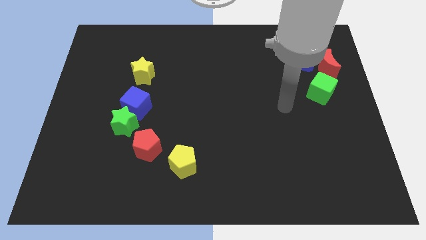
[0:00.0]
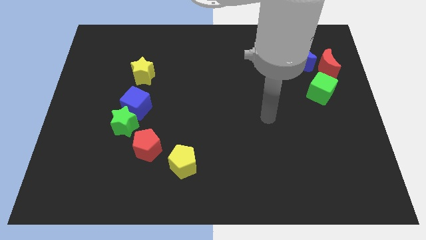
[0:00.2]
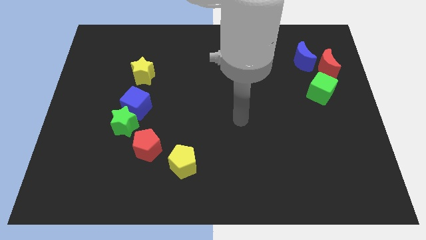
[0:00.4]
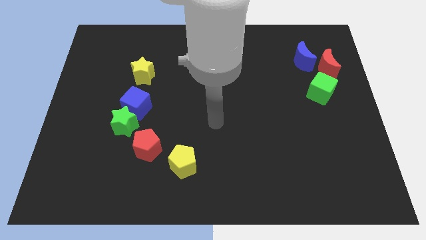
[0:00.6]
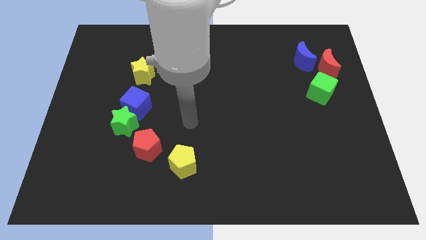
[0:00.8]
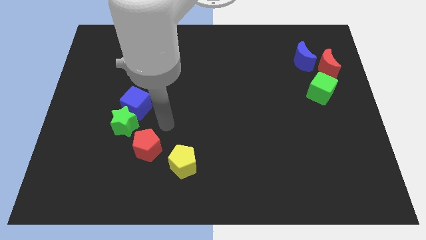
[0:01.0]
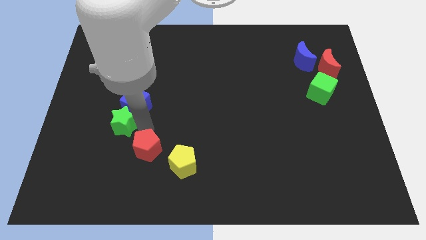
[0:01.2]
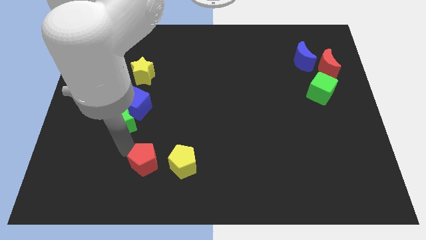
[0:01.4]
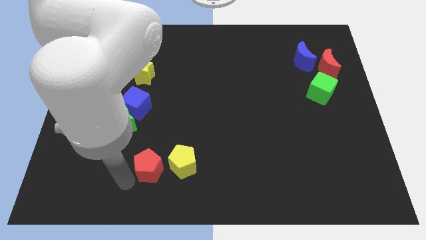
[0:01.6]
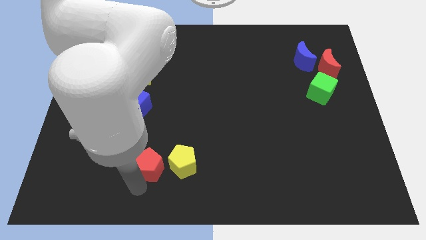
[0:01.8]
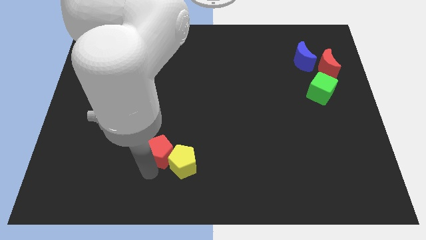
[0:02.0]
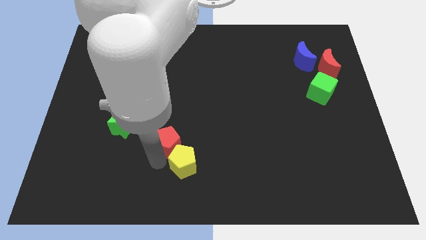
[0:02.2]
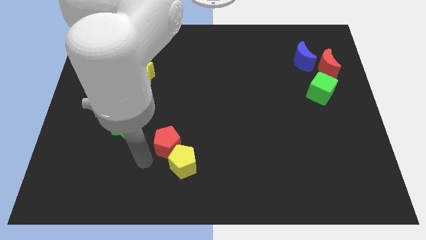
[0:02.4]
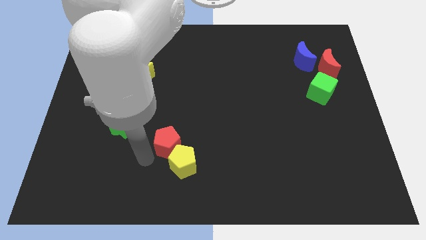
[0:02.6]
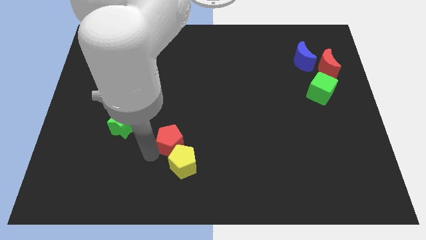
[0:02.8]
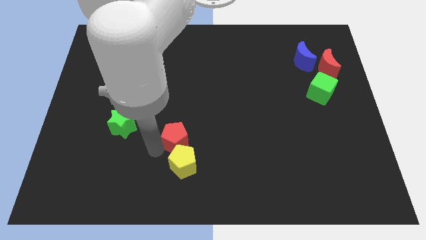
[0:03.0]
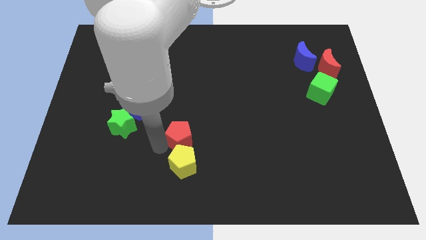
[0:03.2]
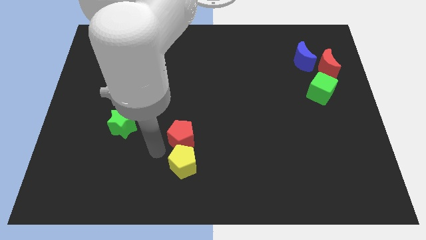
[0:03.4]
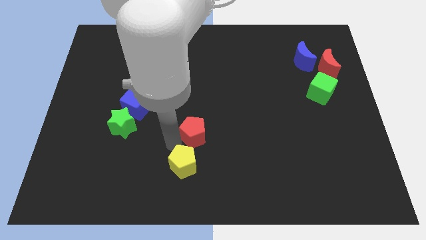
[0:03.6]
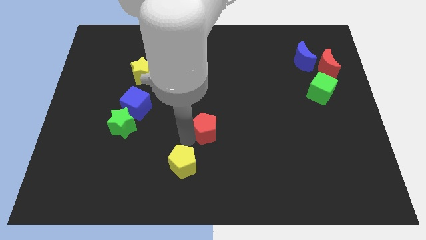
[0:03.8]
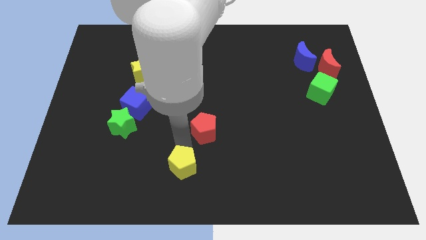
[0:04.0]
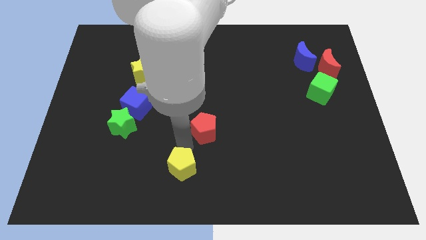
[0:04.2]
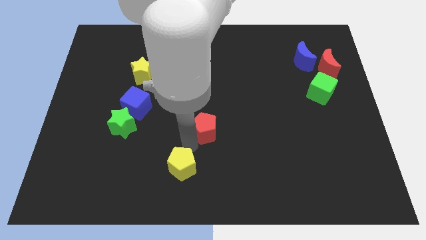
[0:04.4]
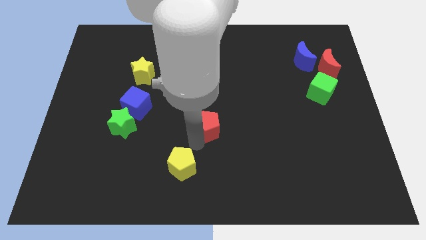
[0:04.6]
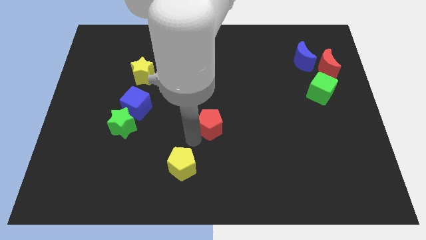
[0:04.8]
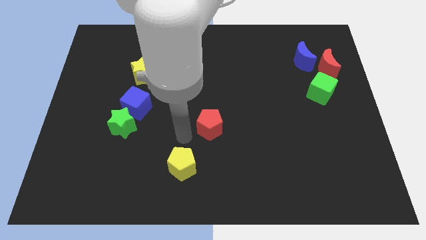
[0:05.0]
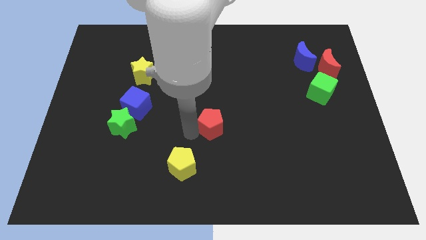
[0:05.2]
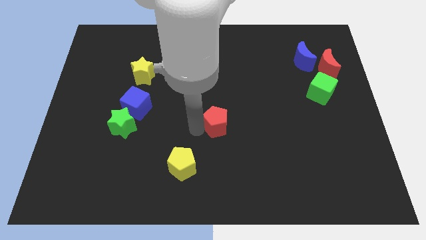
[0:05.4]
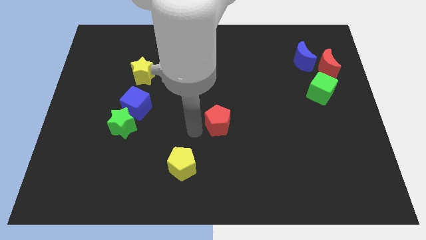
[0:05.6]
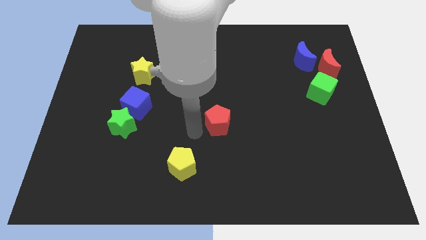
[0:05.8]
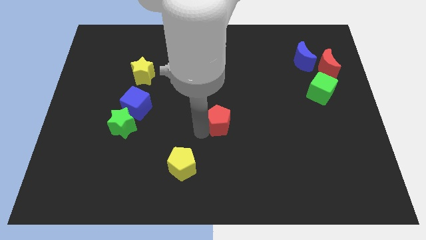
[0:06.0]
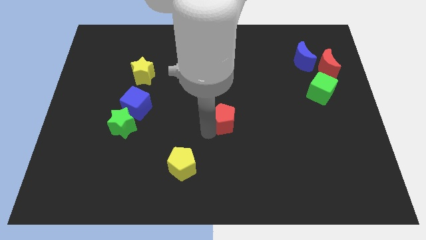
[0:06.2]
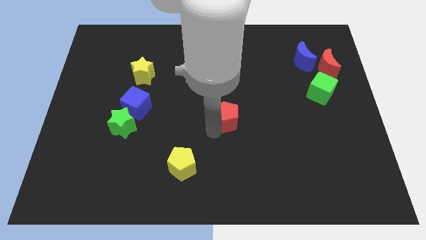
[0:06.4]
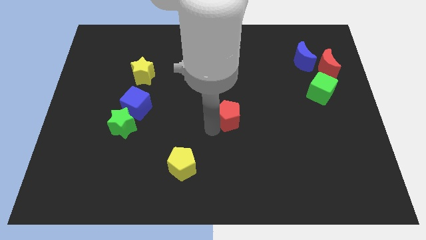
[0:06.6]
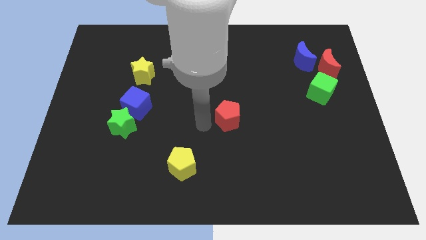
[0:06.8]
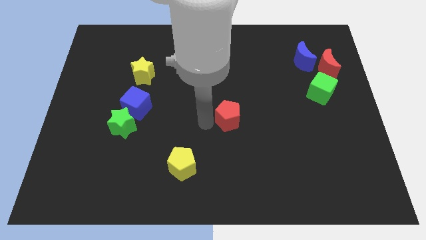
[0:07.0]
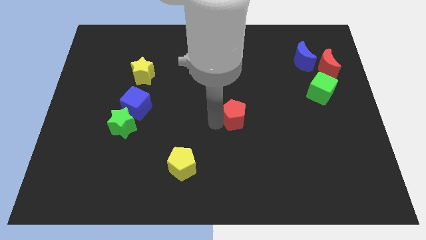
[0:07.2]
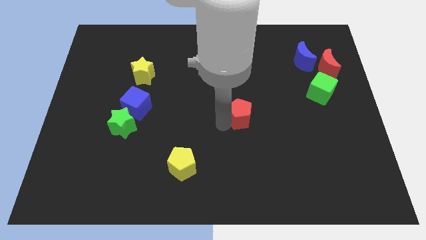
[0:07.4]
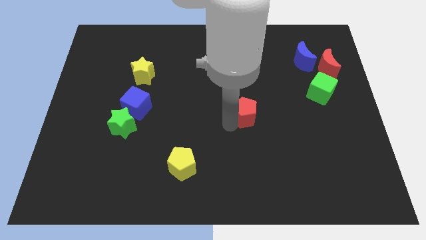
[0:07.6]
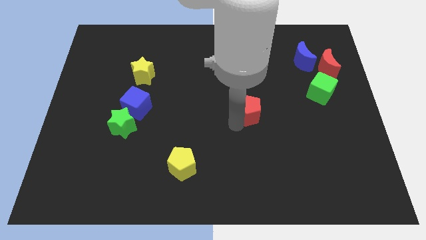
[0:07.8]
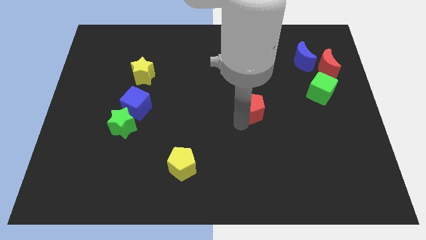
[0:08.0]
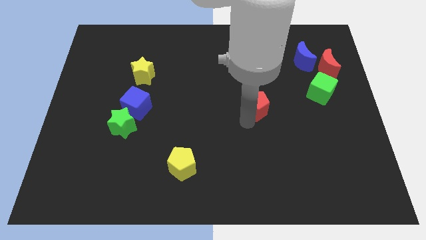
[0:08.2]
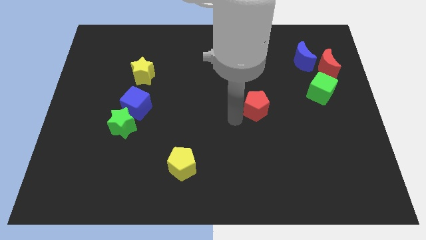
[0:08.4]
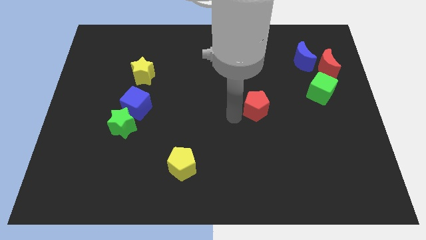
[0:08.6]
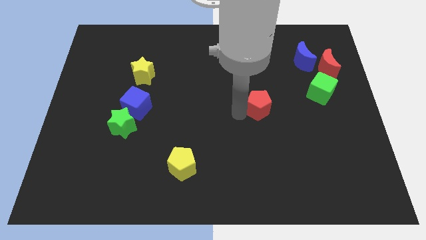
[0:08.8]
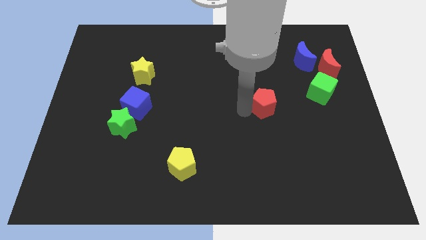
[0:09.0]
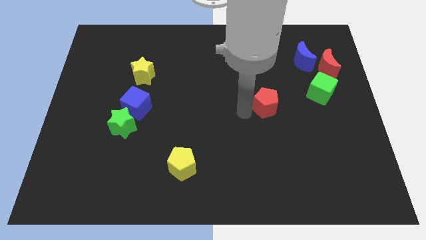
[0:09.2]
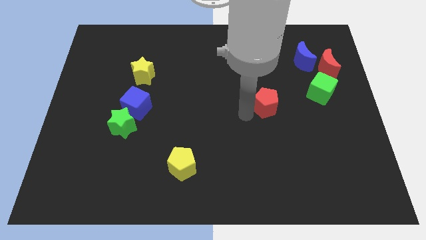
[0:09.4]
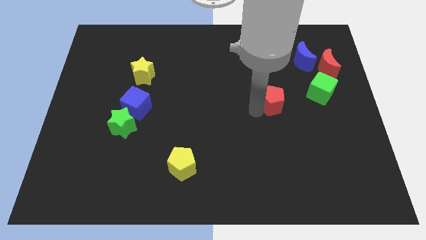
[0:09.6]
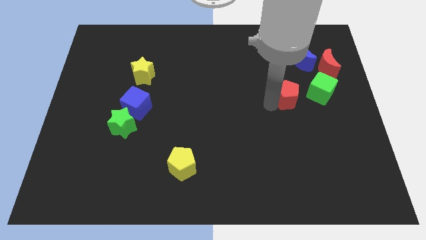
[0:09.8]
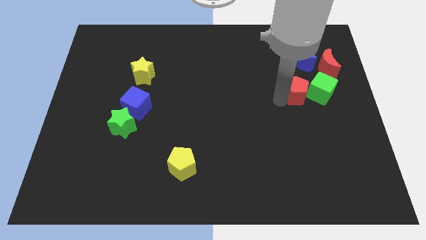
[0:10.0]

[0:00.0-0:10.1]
slide the red pentagon towards the green cube

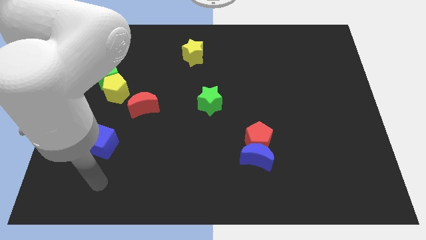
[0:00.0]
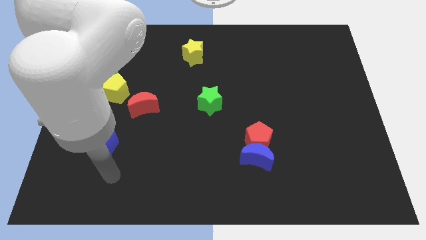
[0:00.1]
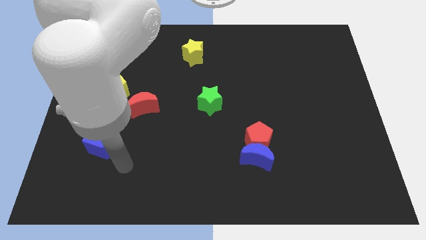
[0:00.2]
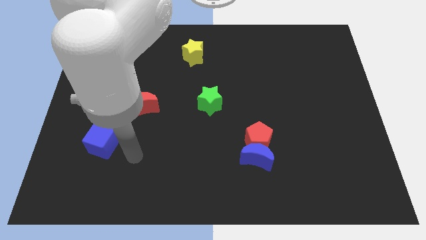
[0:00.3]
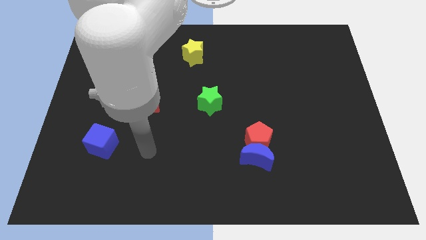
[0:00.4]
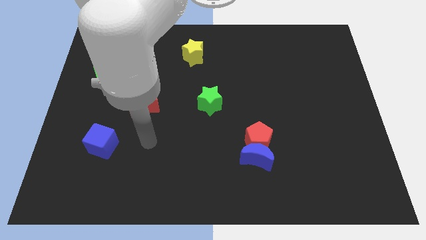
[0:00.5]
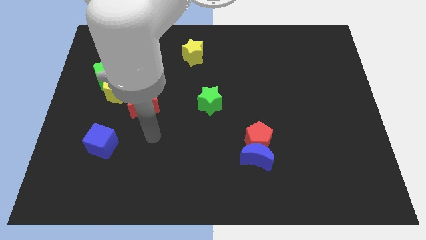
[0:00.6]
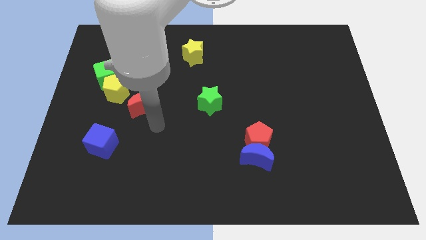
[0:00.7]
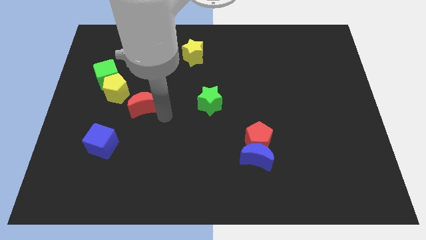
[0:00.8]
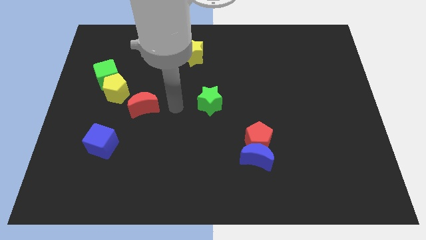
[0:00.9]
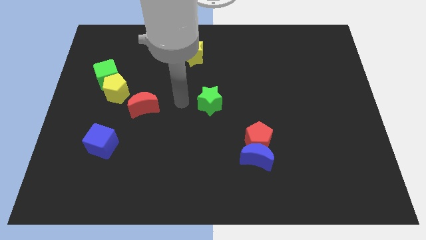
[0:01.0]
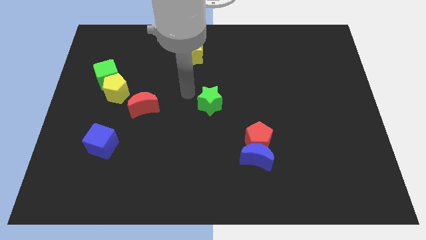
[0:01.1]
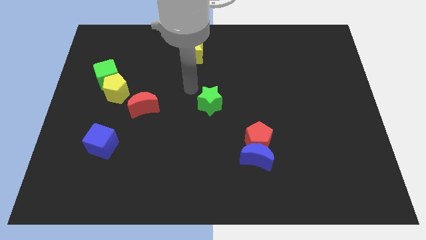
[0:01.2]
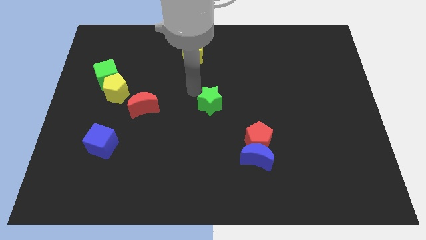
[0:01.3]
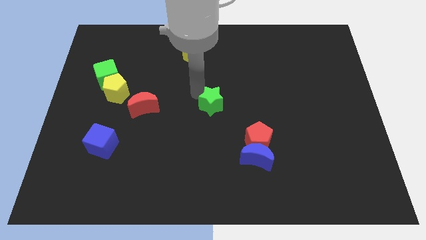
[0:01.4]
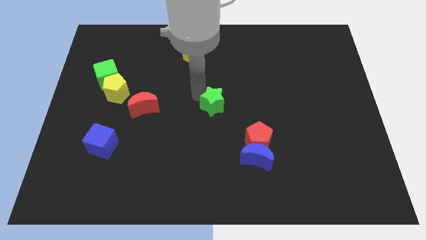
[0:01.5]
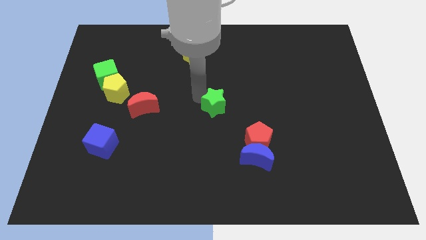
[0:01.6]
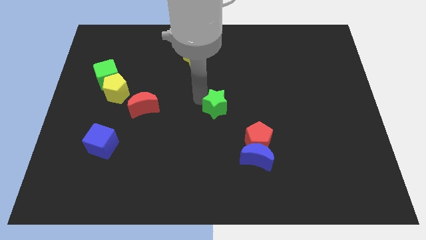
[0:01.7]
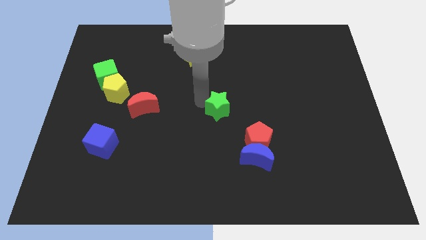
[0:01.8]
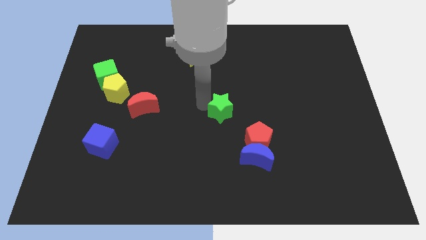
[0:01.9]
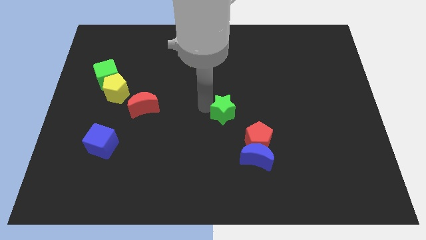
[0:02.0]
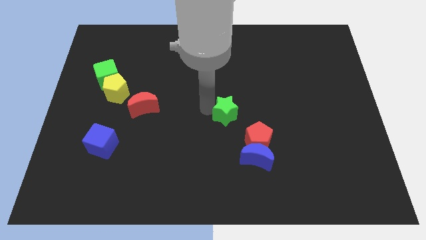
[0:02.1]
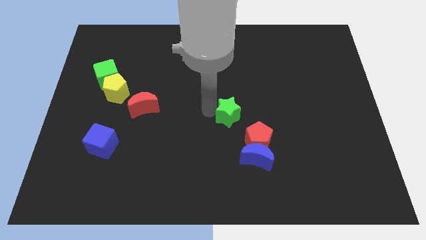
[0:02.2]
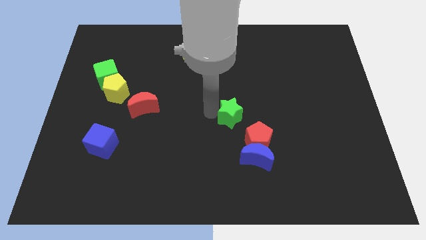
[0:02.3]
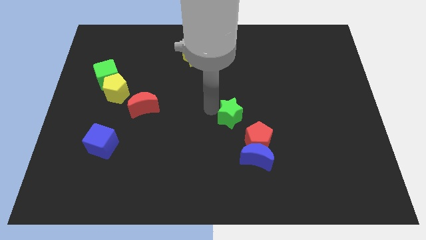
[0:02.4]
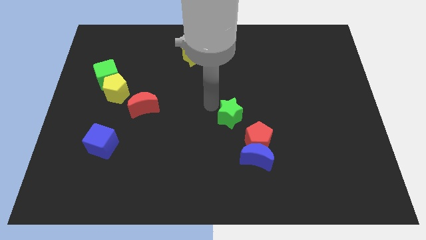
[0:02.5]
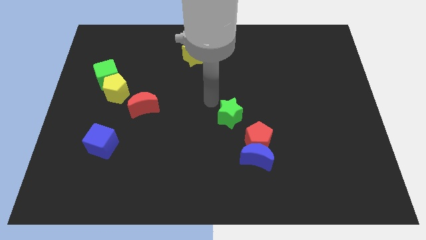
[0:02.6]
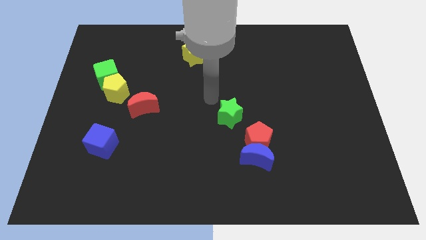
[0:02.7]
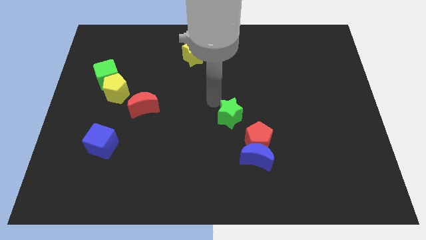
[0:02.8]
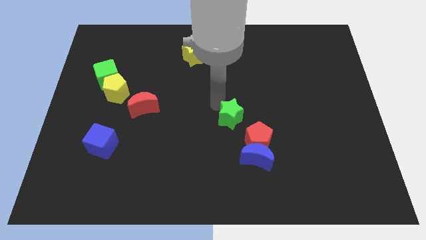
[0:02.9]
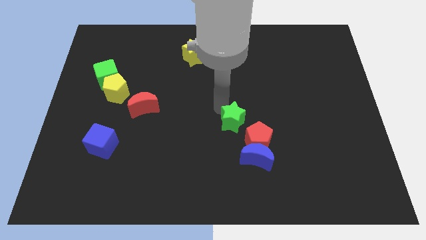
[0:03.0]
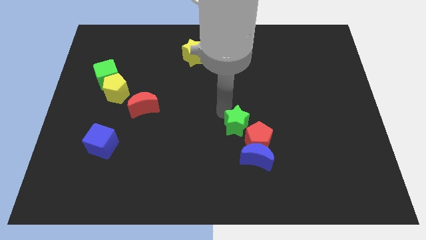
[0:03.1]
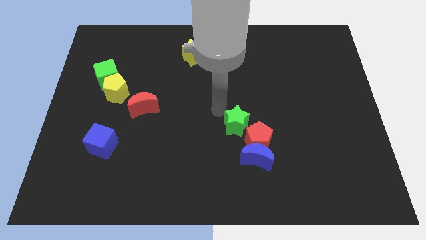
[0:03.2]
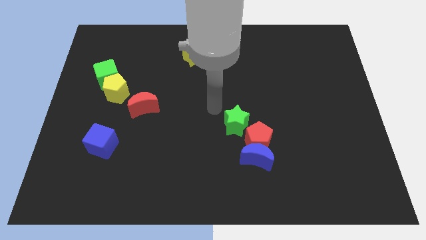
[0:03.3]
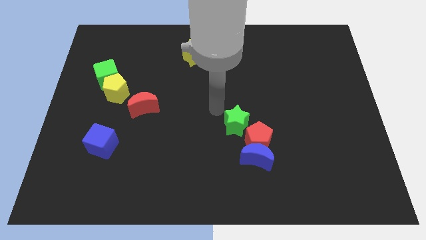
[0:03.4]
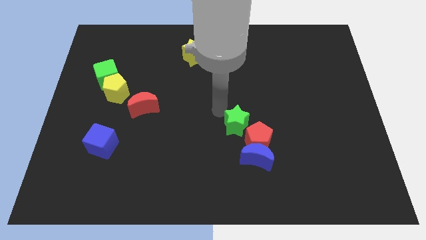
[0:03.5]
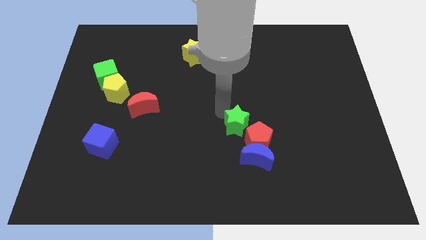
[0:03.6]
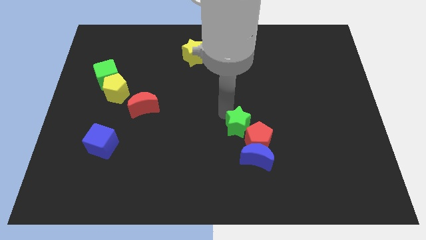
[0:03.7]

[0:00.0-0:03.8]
move the green star close to the red pentagon
